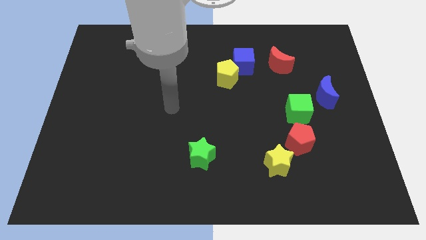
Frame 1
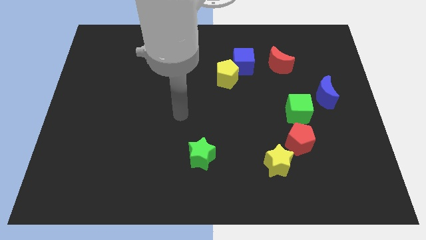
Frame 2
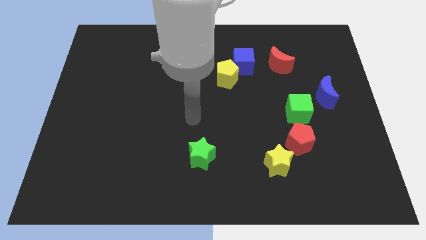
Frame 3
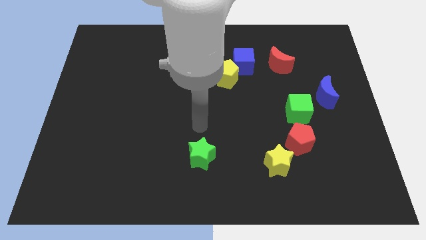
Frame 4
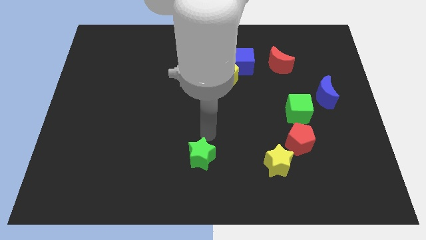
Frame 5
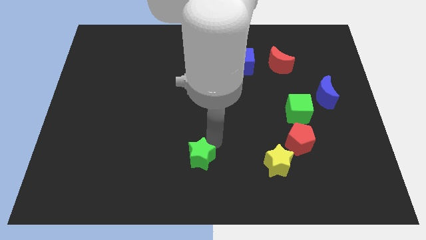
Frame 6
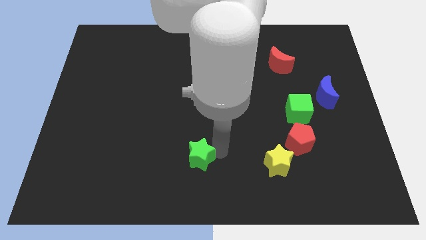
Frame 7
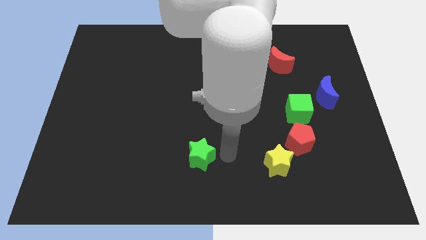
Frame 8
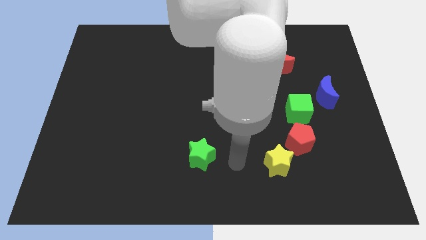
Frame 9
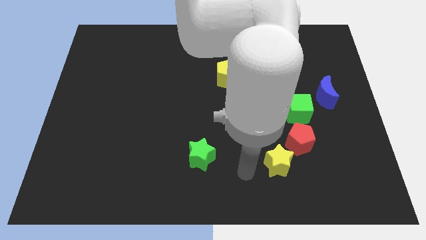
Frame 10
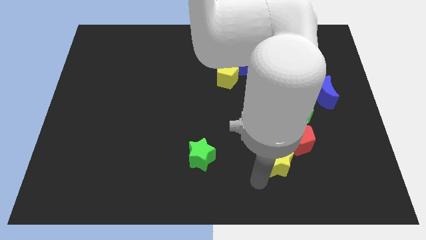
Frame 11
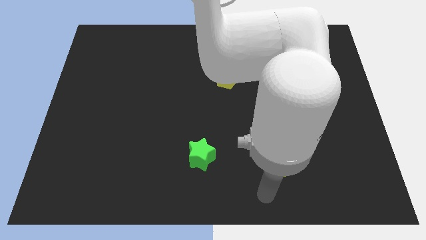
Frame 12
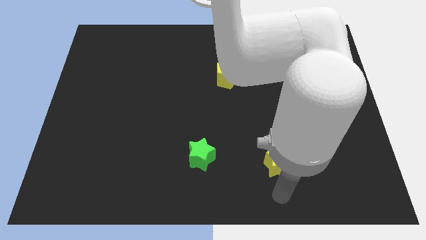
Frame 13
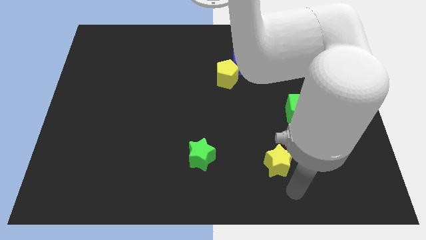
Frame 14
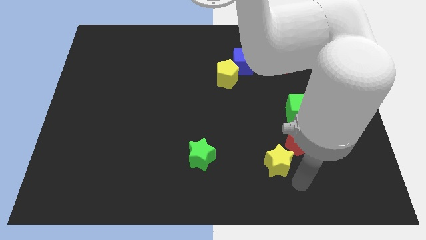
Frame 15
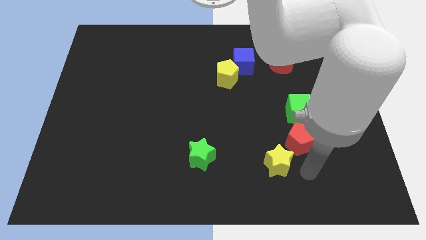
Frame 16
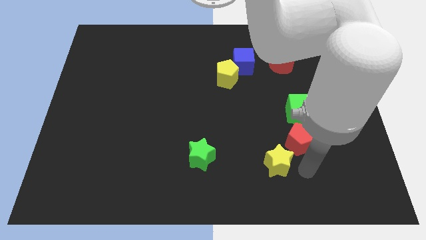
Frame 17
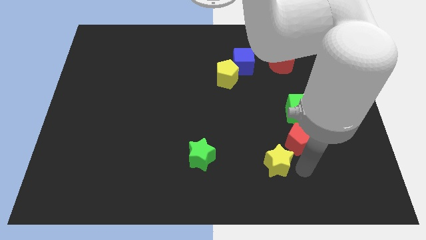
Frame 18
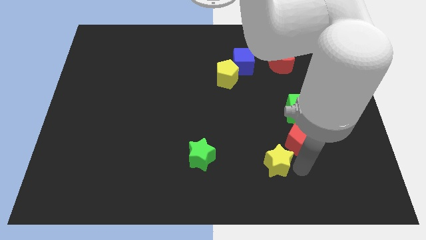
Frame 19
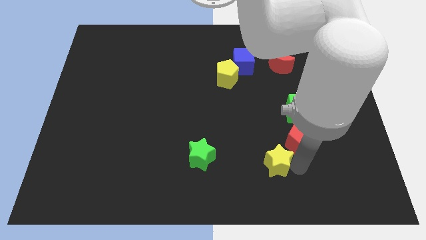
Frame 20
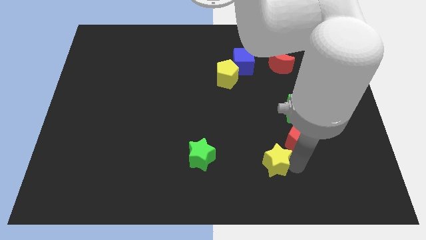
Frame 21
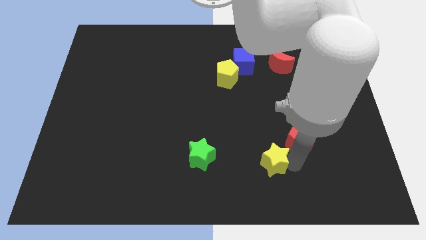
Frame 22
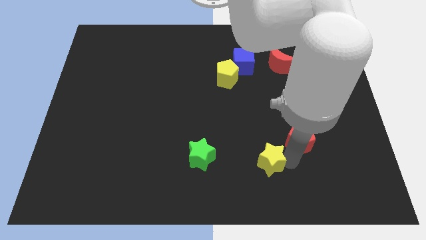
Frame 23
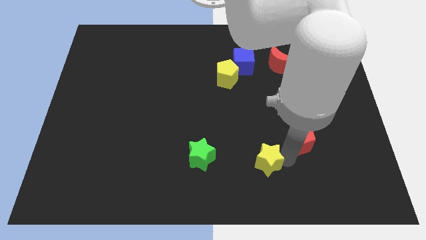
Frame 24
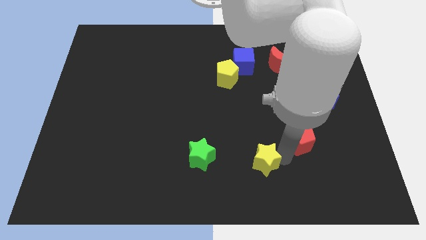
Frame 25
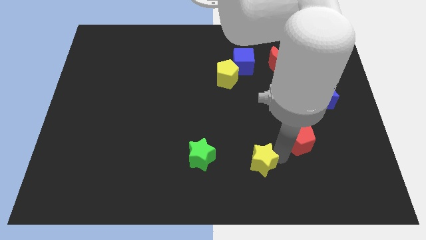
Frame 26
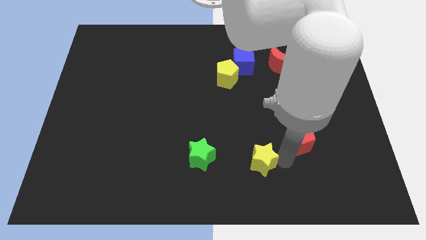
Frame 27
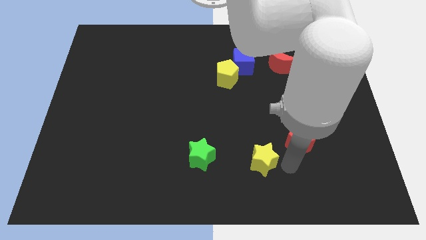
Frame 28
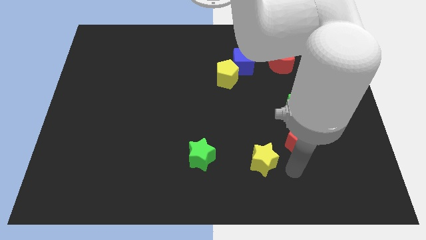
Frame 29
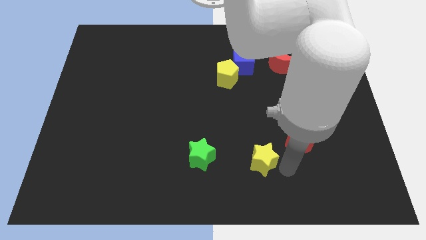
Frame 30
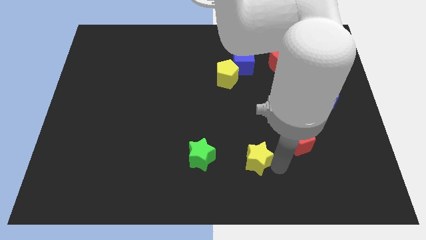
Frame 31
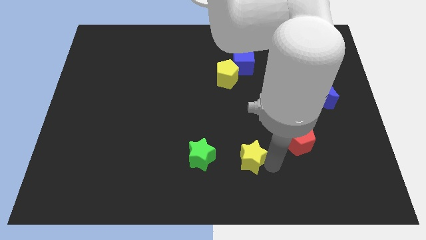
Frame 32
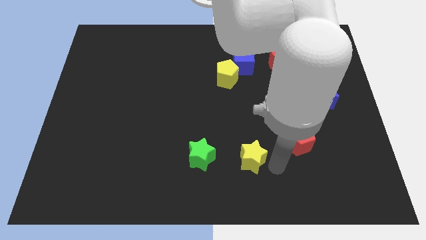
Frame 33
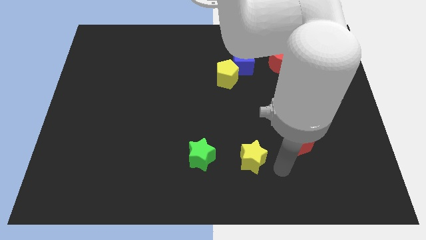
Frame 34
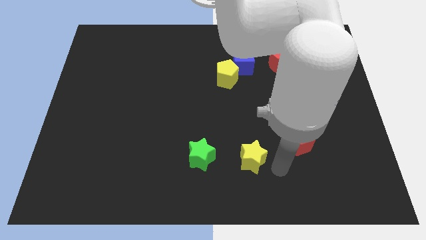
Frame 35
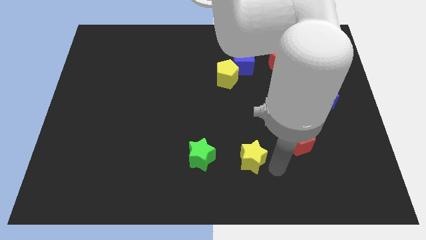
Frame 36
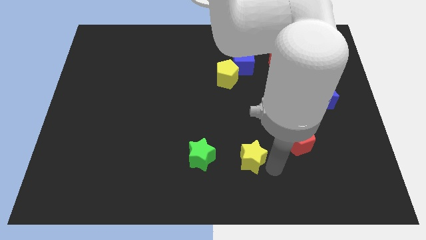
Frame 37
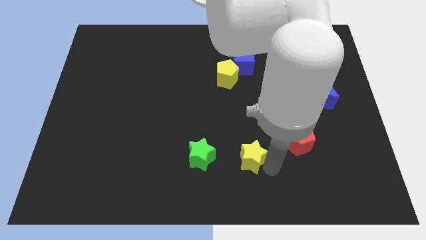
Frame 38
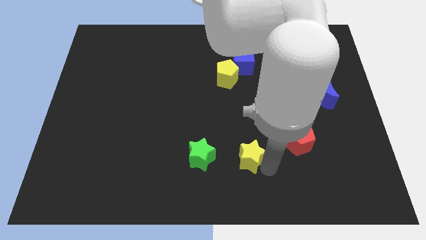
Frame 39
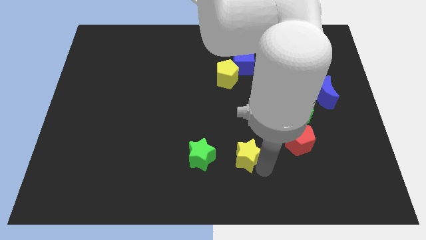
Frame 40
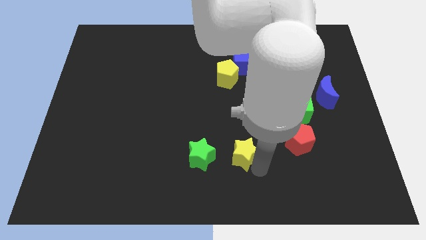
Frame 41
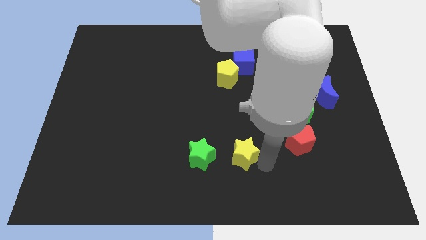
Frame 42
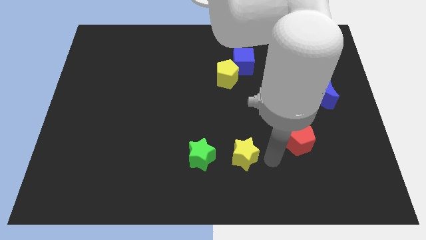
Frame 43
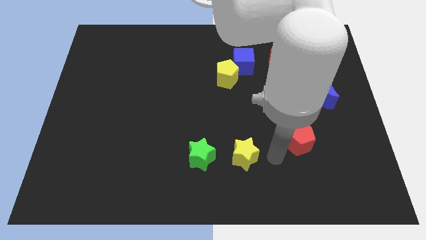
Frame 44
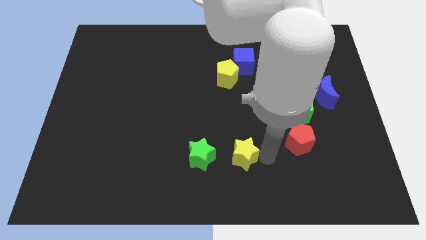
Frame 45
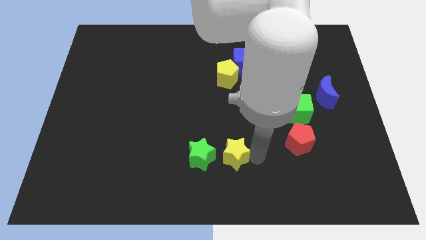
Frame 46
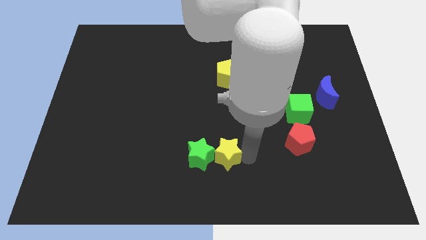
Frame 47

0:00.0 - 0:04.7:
move the yellow star next to the green star

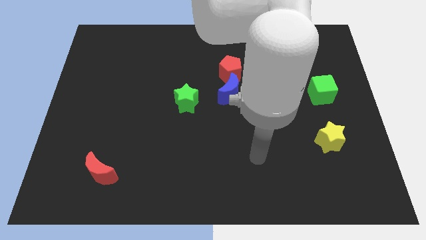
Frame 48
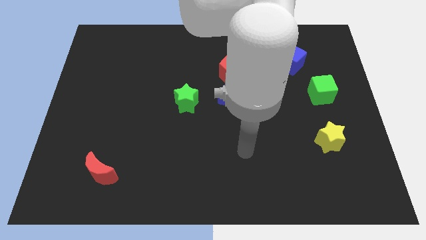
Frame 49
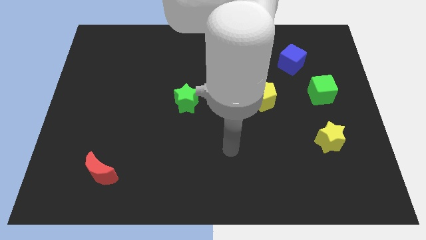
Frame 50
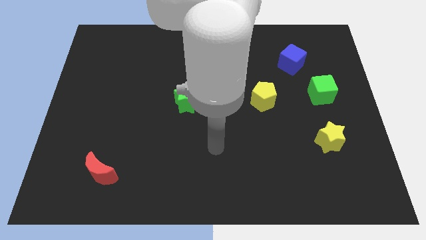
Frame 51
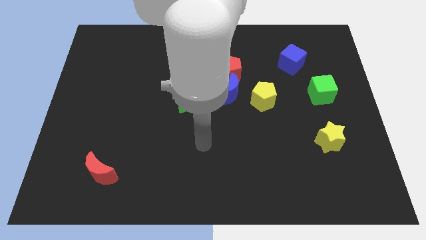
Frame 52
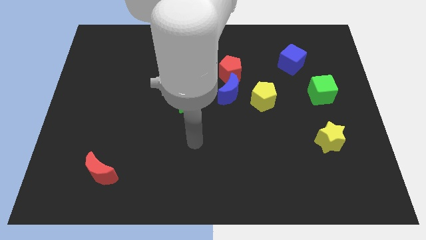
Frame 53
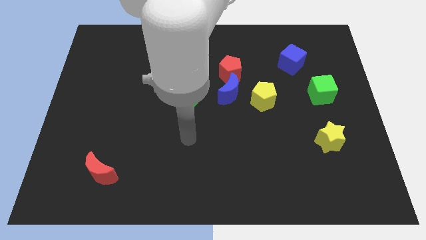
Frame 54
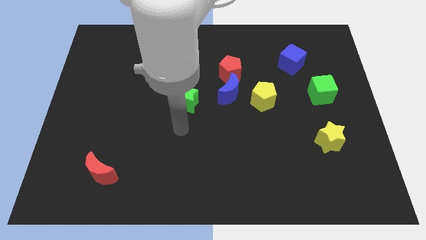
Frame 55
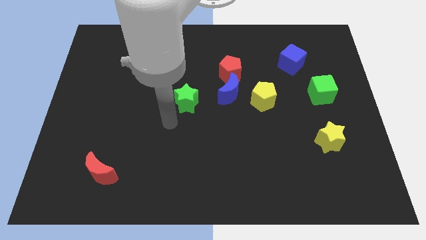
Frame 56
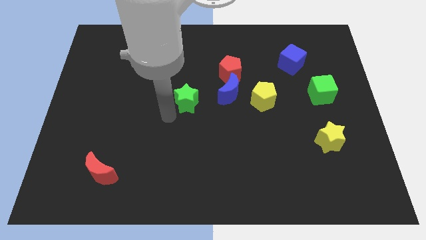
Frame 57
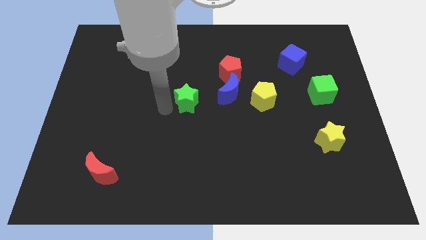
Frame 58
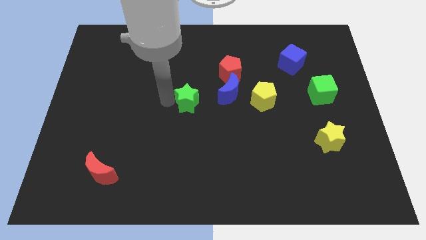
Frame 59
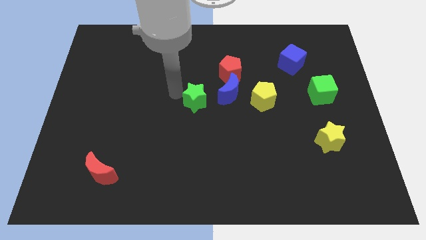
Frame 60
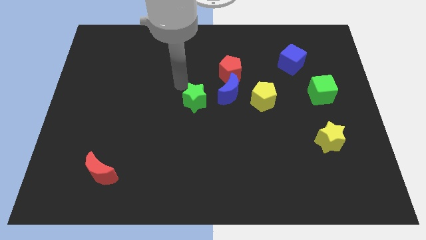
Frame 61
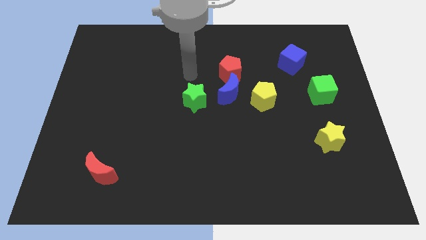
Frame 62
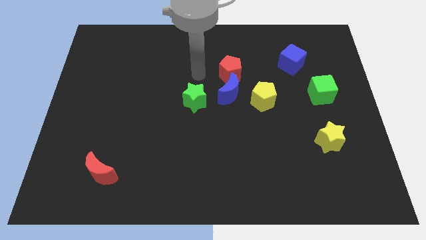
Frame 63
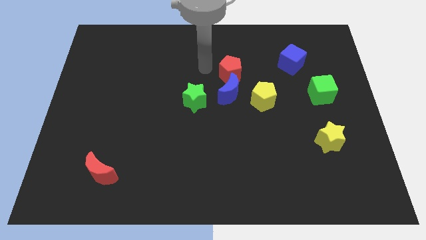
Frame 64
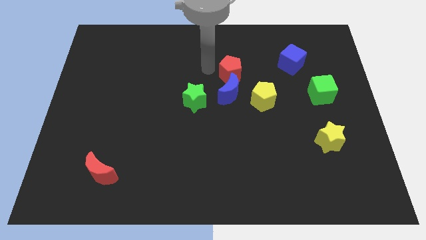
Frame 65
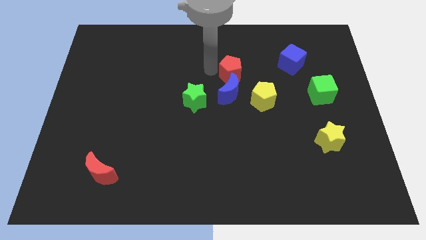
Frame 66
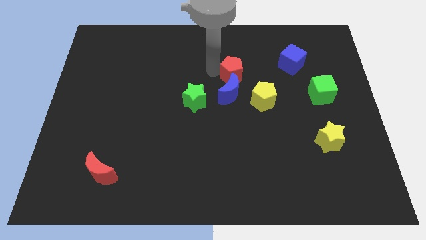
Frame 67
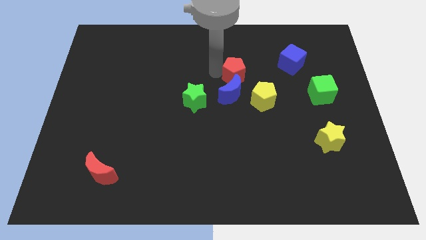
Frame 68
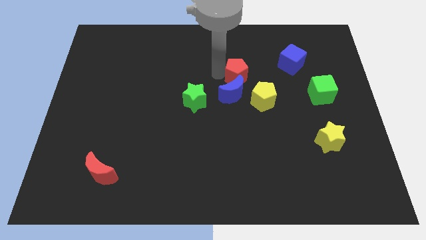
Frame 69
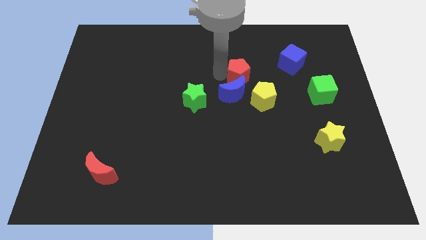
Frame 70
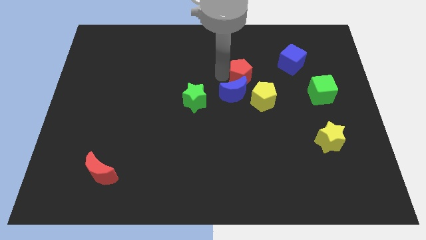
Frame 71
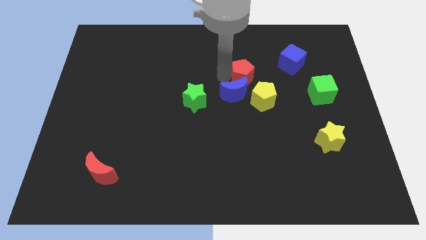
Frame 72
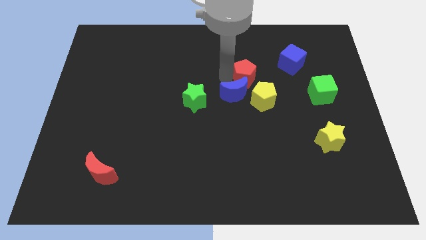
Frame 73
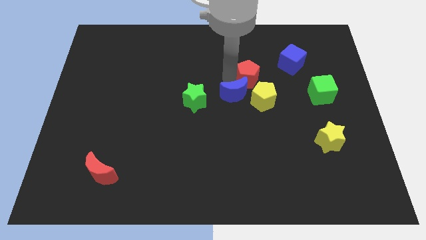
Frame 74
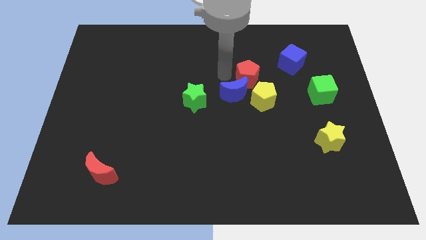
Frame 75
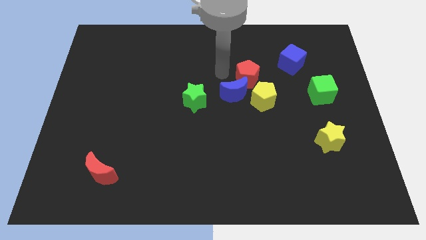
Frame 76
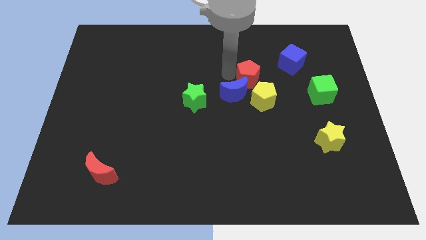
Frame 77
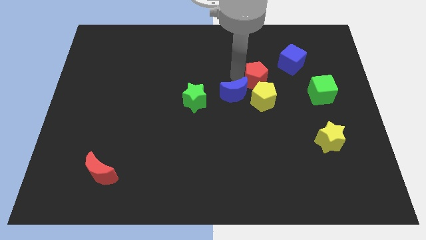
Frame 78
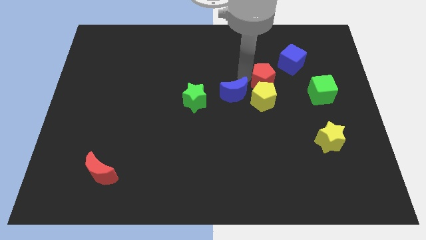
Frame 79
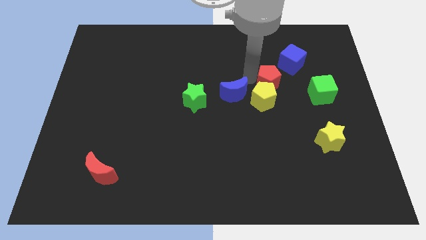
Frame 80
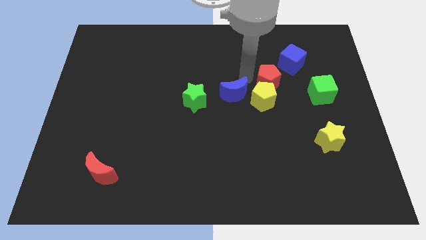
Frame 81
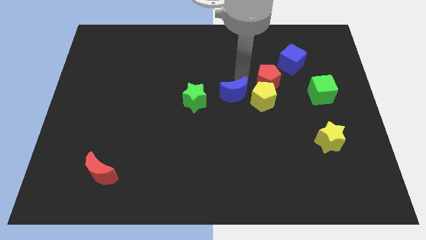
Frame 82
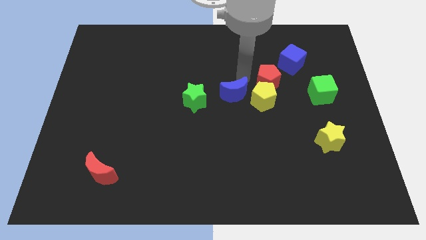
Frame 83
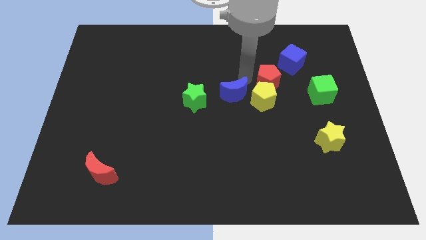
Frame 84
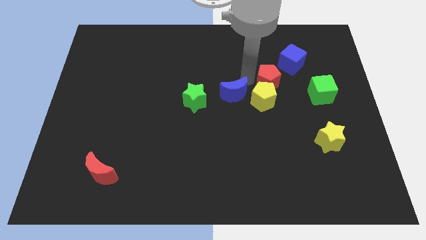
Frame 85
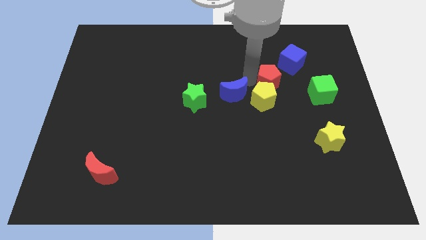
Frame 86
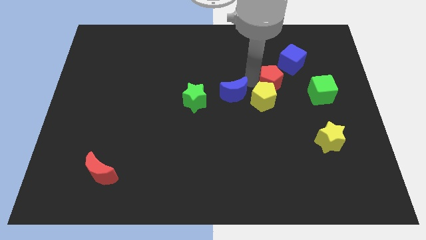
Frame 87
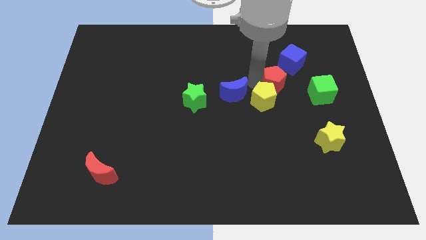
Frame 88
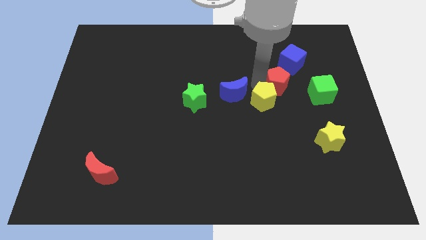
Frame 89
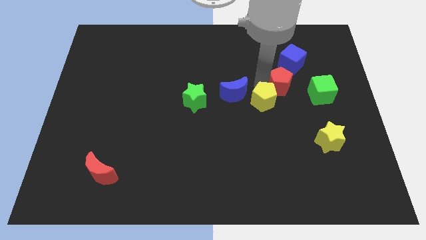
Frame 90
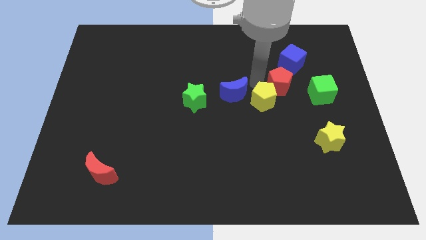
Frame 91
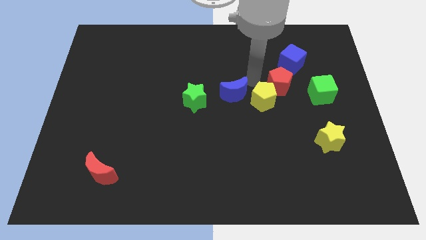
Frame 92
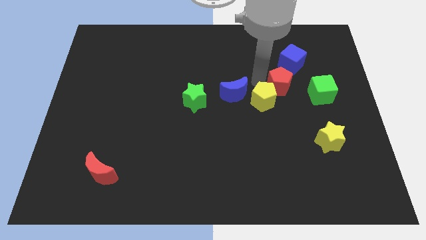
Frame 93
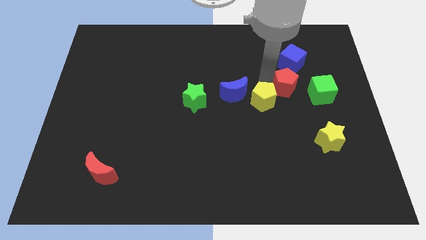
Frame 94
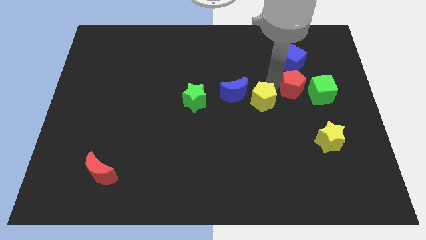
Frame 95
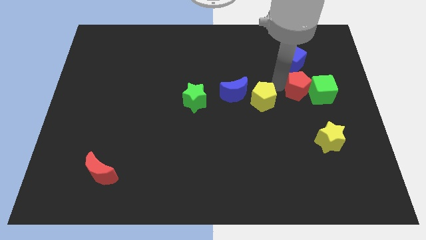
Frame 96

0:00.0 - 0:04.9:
put the red pentagon next to the green cube
